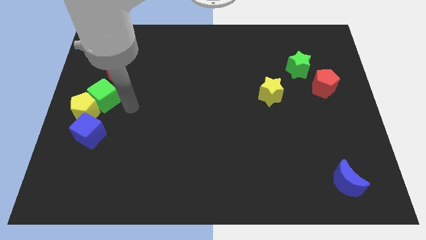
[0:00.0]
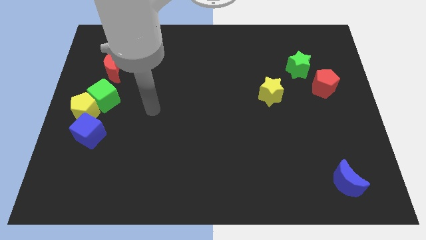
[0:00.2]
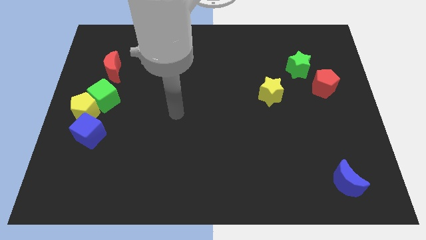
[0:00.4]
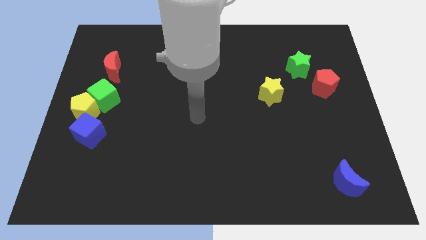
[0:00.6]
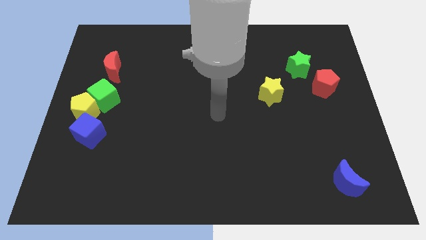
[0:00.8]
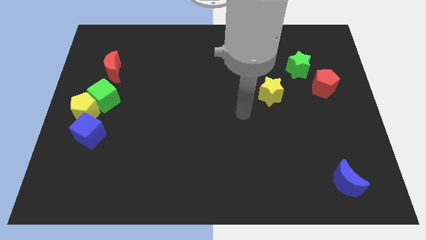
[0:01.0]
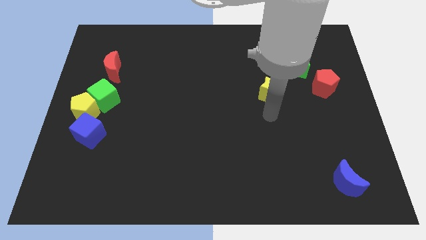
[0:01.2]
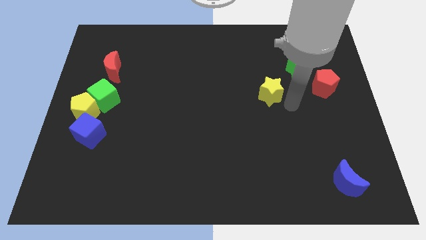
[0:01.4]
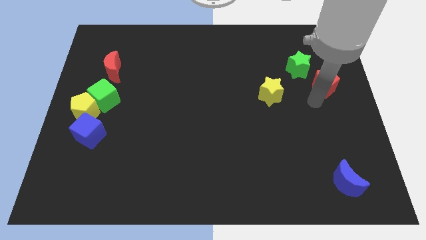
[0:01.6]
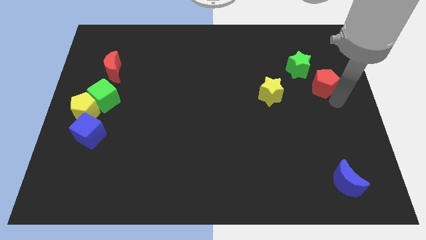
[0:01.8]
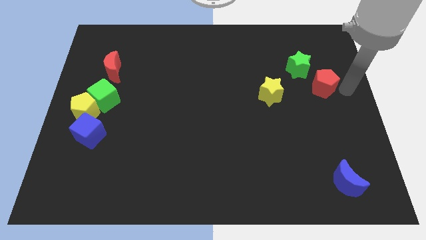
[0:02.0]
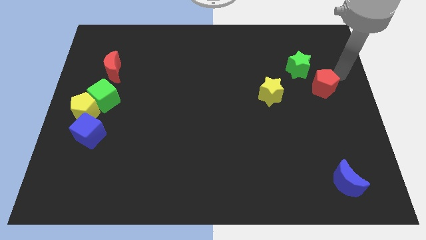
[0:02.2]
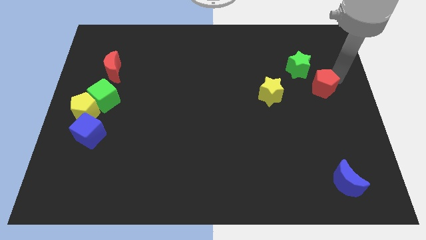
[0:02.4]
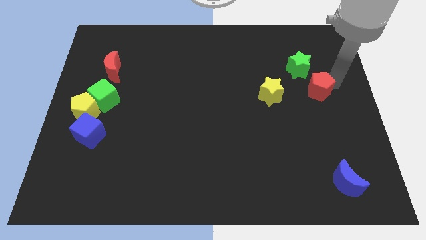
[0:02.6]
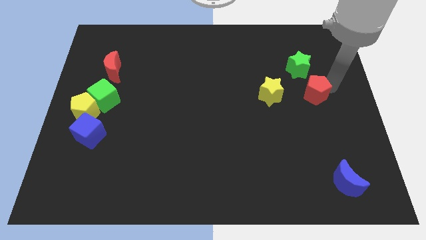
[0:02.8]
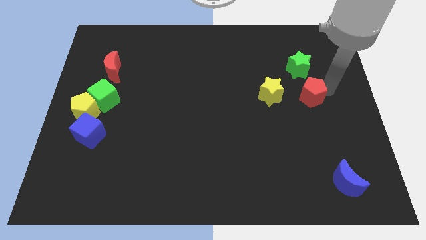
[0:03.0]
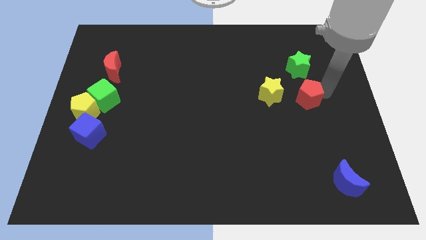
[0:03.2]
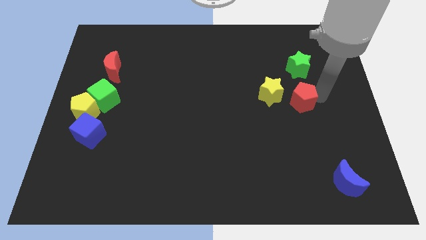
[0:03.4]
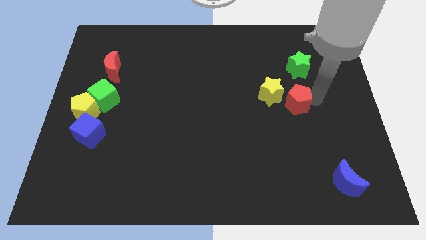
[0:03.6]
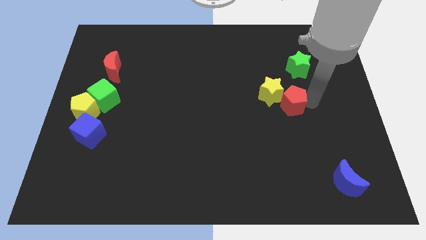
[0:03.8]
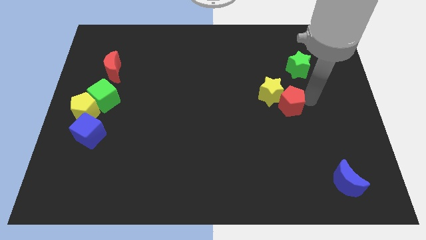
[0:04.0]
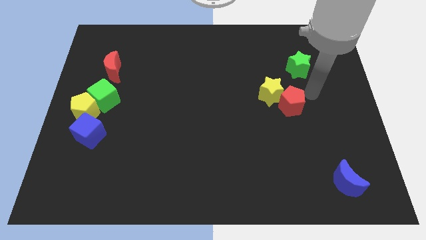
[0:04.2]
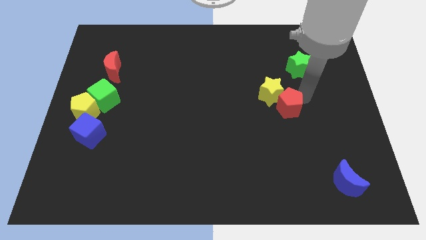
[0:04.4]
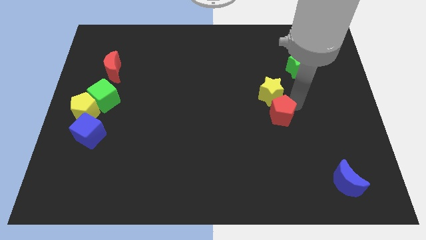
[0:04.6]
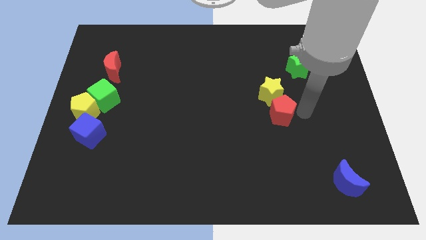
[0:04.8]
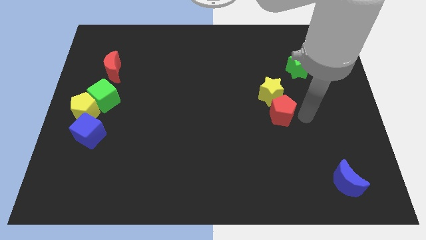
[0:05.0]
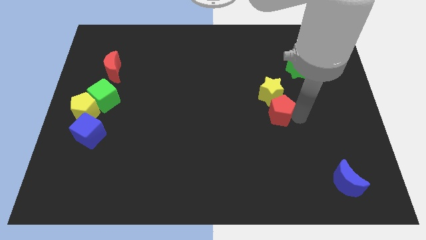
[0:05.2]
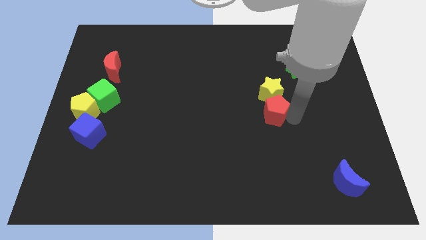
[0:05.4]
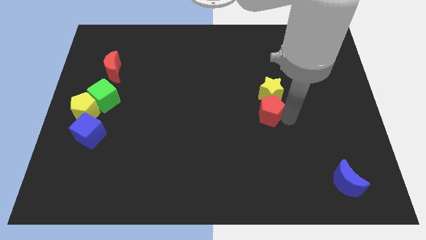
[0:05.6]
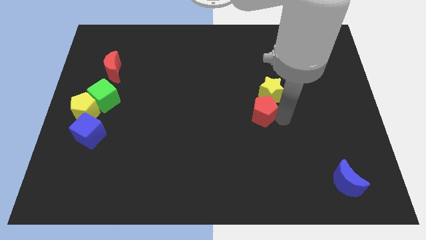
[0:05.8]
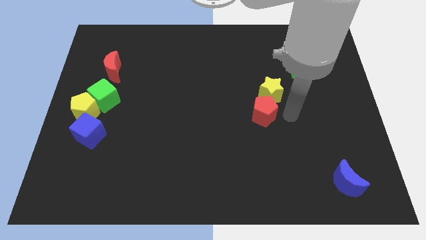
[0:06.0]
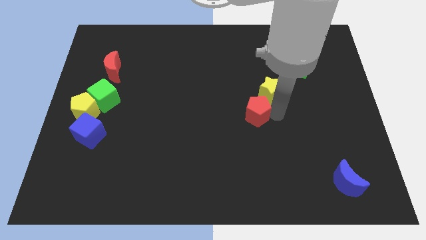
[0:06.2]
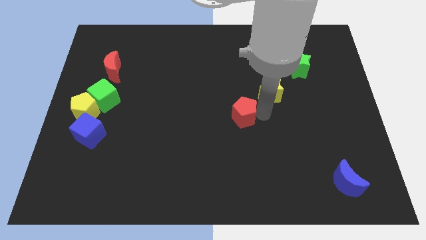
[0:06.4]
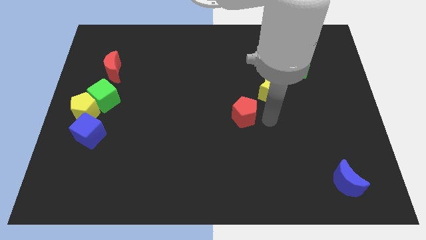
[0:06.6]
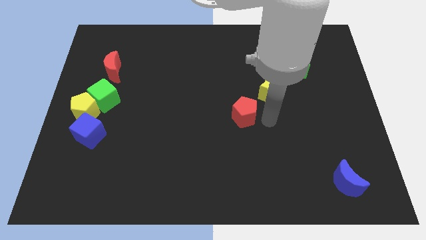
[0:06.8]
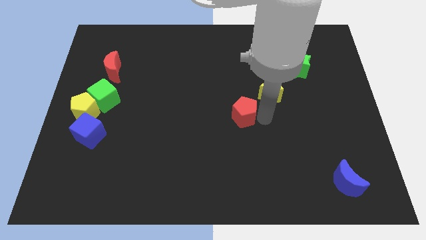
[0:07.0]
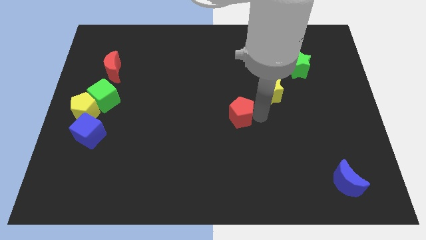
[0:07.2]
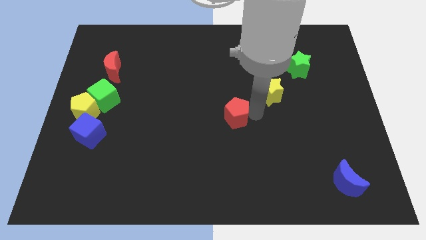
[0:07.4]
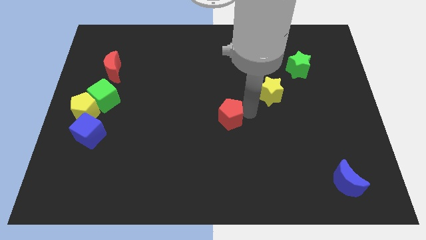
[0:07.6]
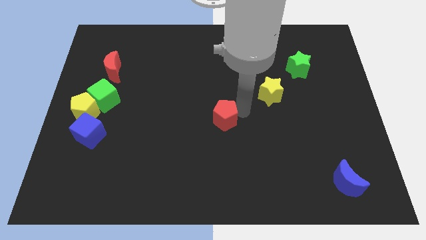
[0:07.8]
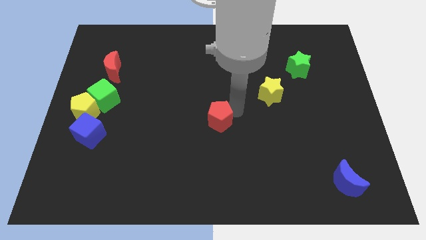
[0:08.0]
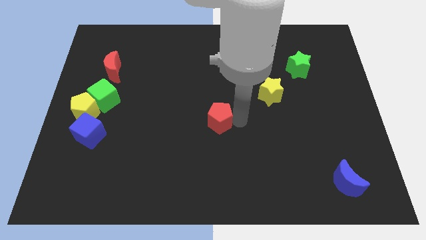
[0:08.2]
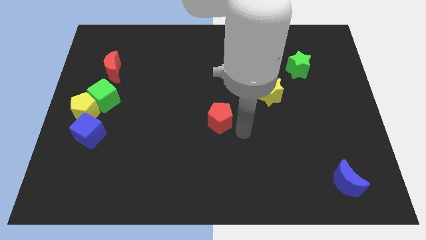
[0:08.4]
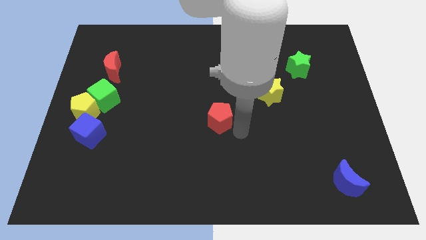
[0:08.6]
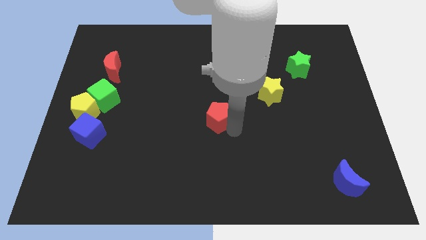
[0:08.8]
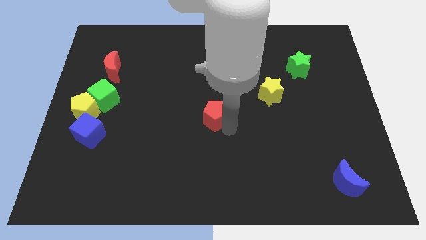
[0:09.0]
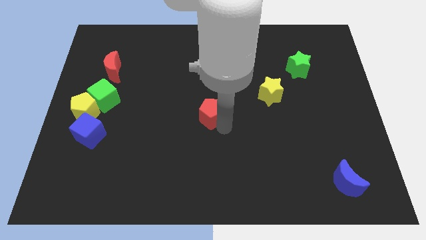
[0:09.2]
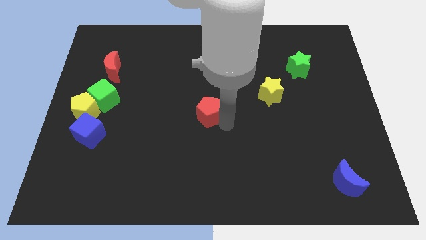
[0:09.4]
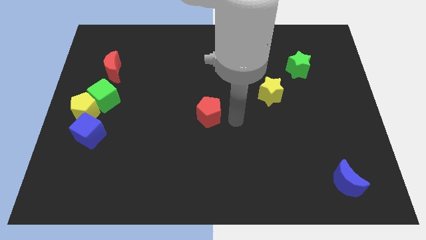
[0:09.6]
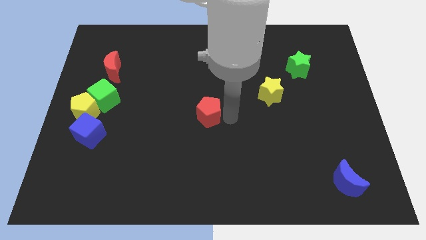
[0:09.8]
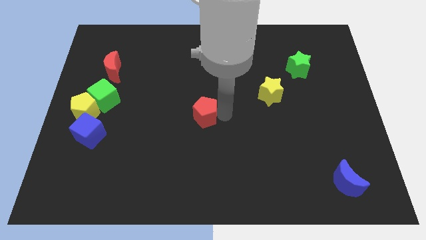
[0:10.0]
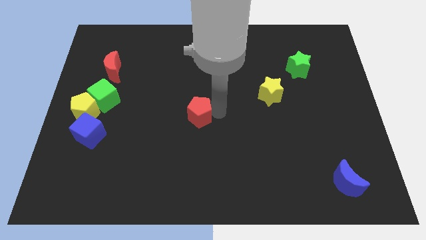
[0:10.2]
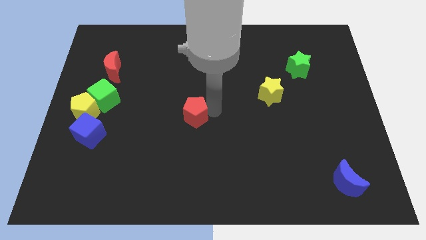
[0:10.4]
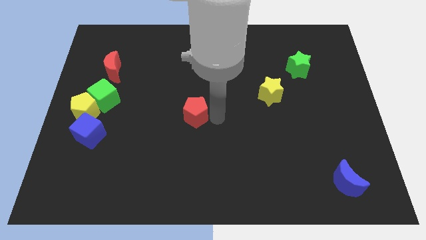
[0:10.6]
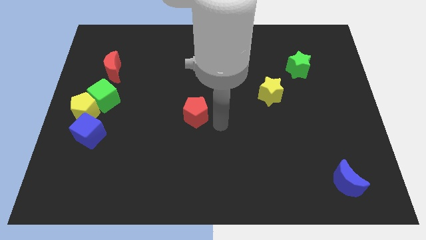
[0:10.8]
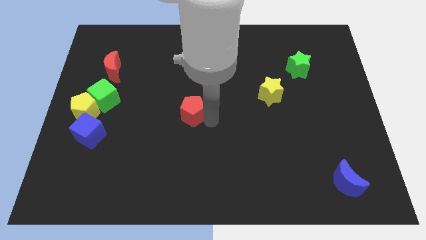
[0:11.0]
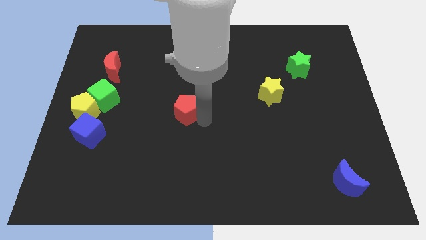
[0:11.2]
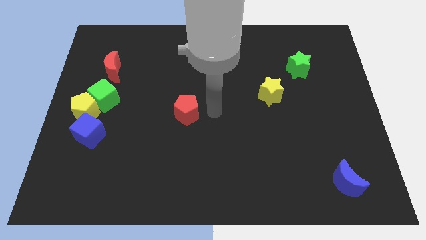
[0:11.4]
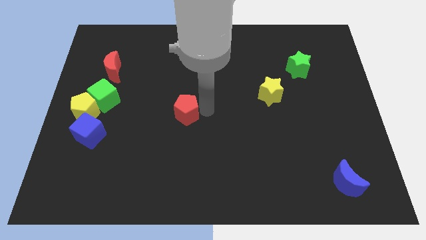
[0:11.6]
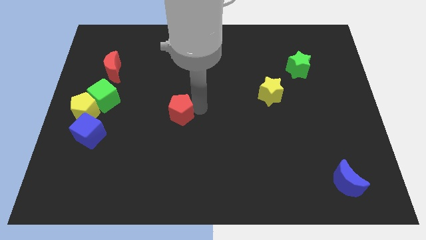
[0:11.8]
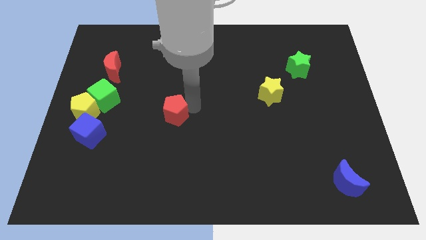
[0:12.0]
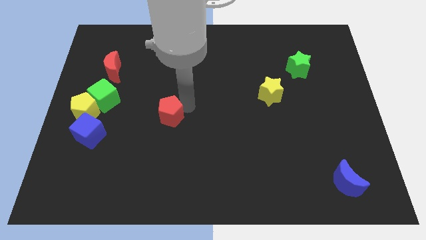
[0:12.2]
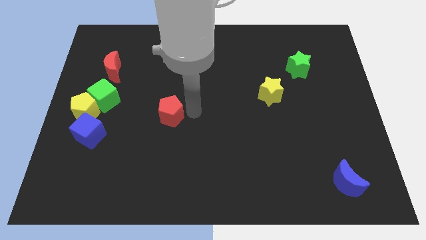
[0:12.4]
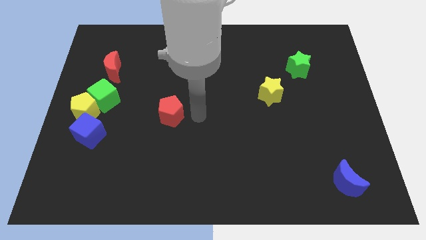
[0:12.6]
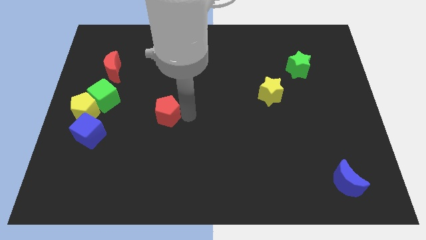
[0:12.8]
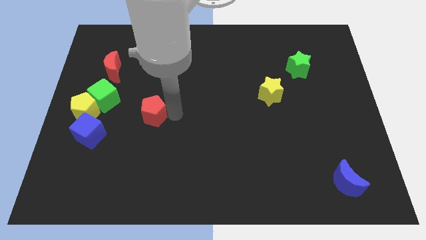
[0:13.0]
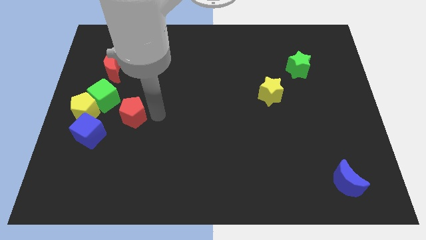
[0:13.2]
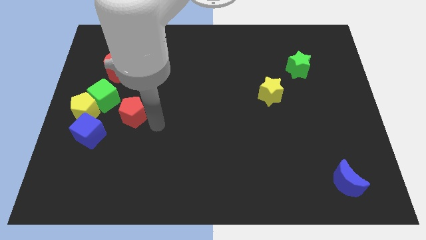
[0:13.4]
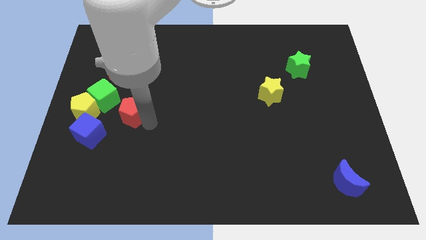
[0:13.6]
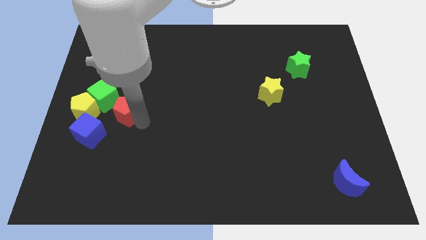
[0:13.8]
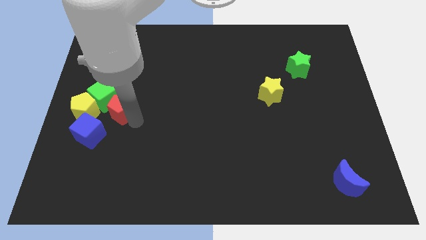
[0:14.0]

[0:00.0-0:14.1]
slide the red pentagon to the bottom side of the red moon

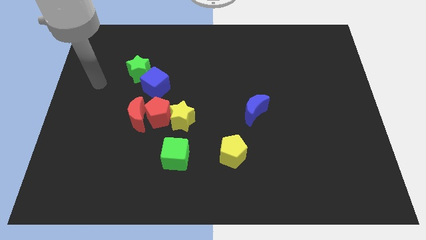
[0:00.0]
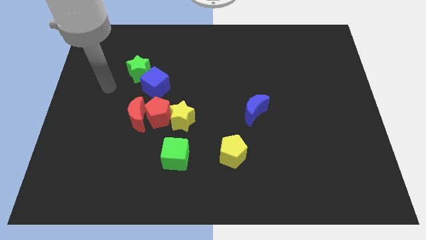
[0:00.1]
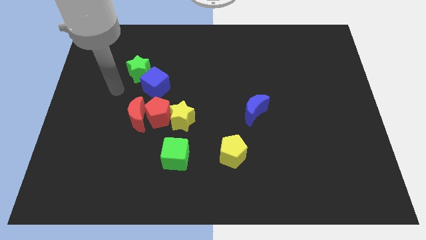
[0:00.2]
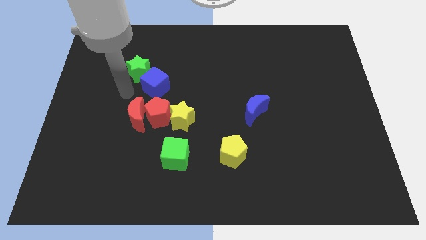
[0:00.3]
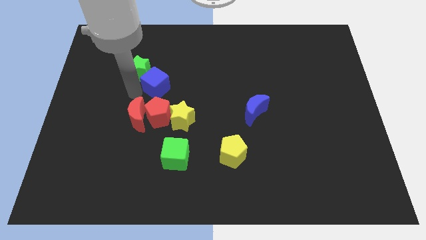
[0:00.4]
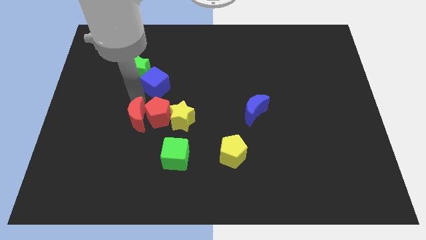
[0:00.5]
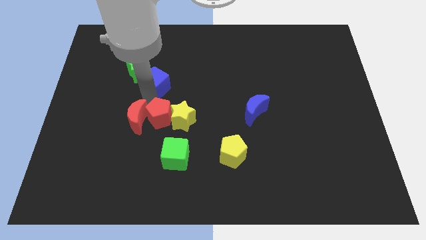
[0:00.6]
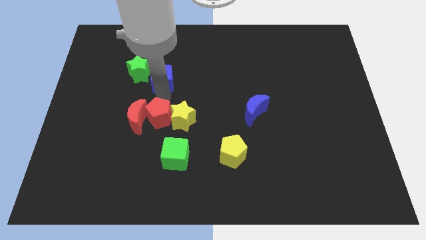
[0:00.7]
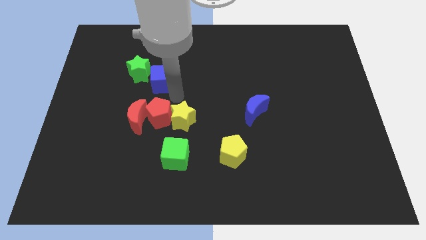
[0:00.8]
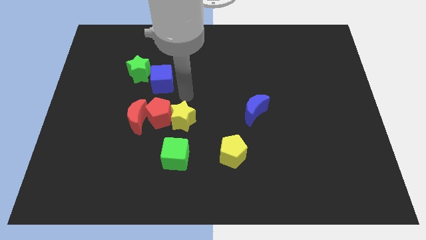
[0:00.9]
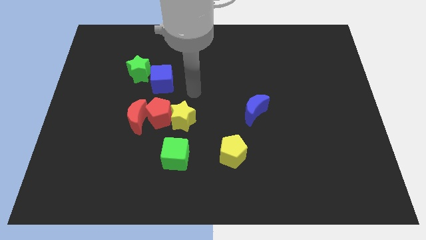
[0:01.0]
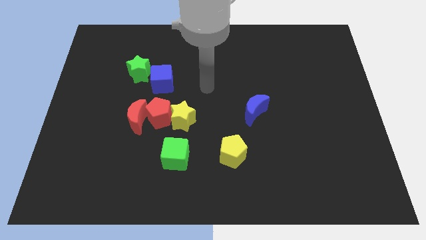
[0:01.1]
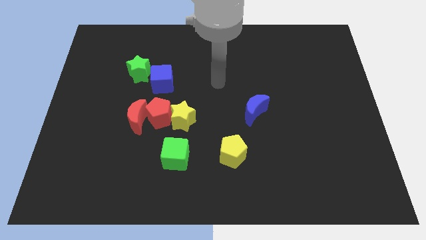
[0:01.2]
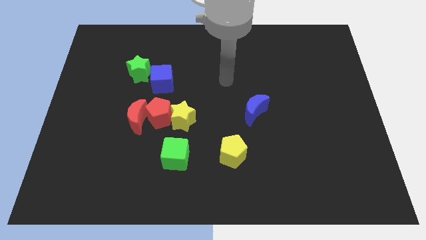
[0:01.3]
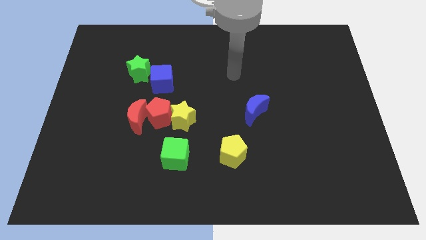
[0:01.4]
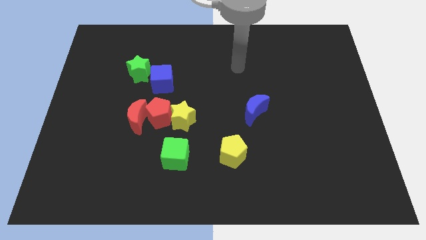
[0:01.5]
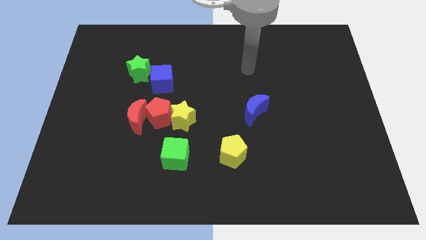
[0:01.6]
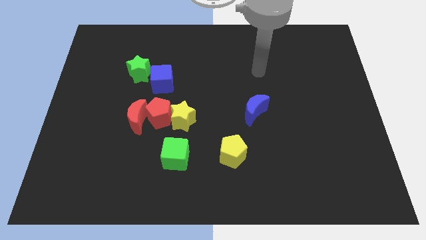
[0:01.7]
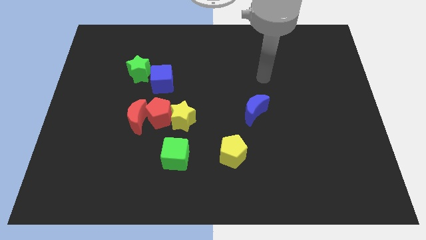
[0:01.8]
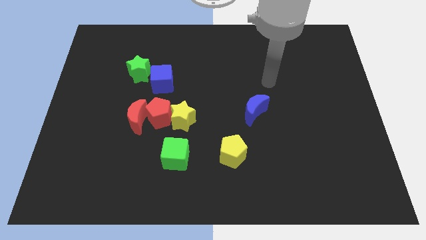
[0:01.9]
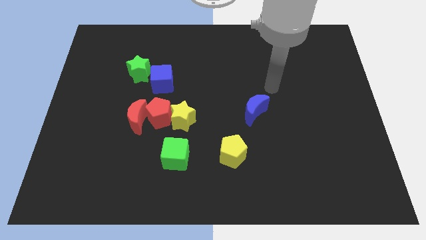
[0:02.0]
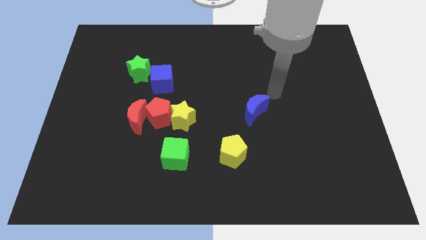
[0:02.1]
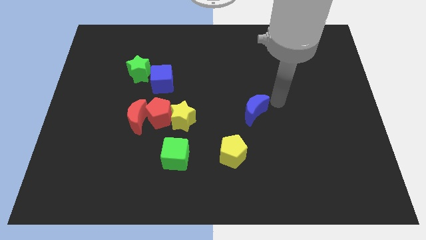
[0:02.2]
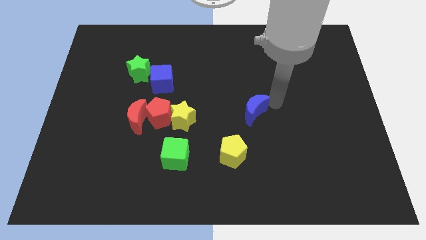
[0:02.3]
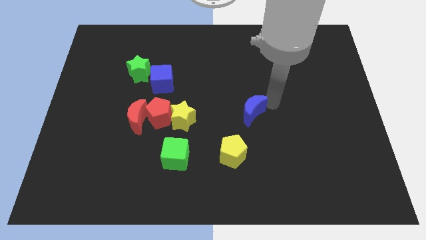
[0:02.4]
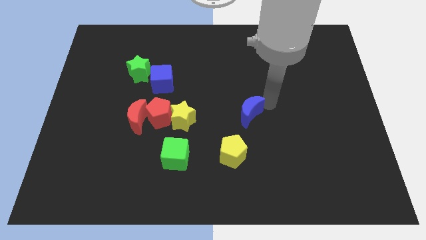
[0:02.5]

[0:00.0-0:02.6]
put the blue moon right of the yellow star
